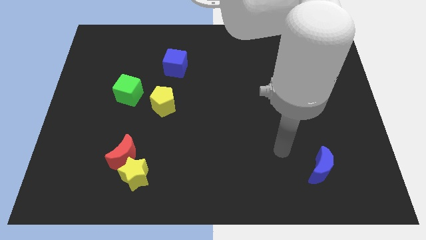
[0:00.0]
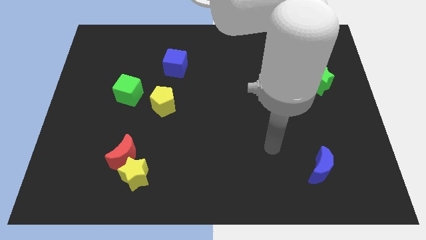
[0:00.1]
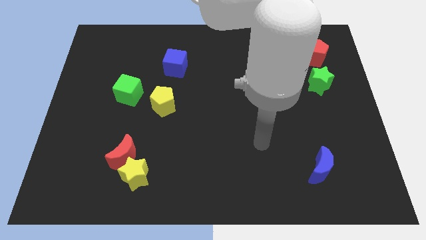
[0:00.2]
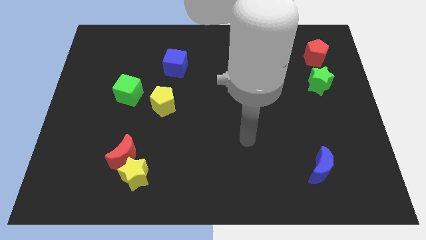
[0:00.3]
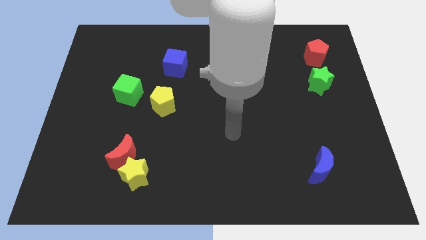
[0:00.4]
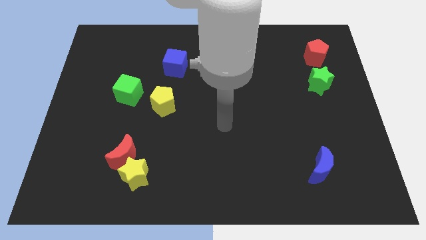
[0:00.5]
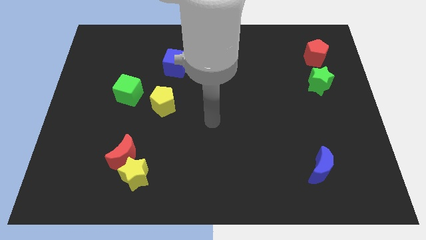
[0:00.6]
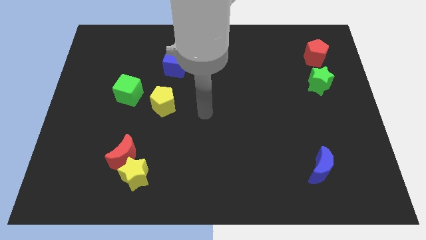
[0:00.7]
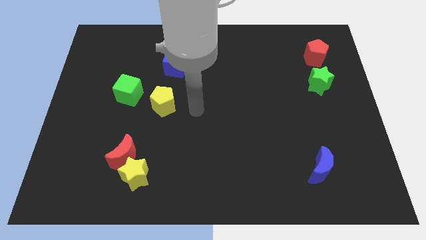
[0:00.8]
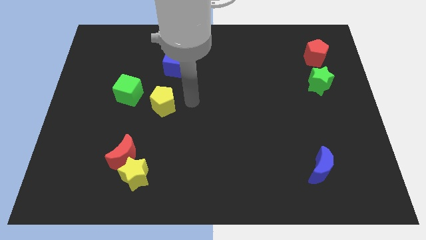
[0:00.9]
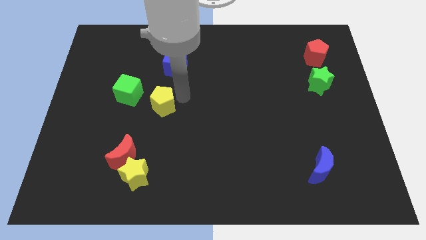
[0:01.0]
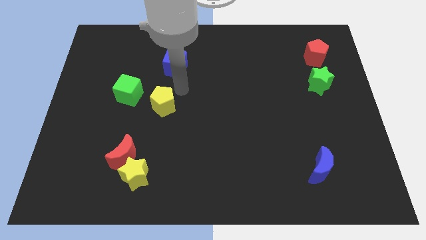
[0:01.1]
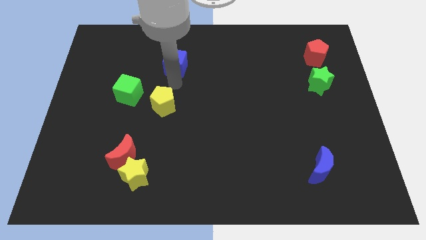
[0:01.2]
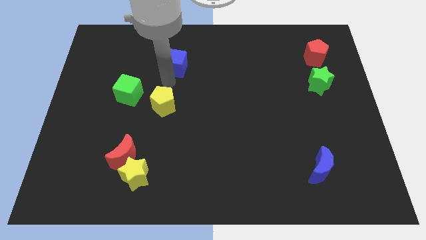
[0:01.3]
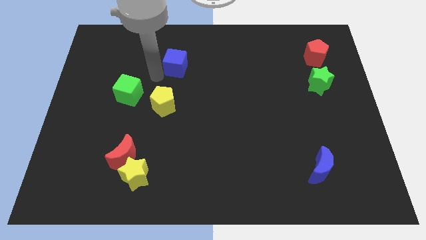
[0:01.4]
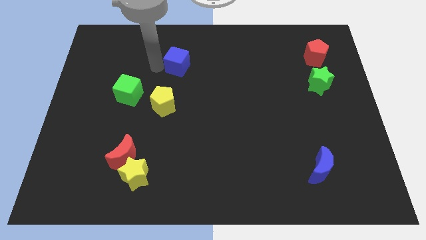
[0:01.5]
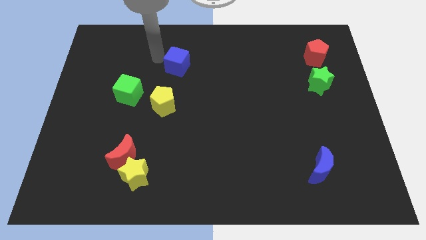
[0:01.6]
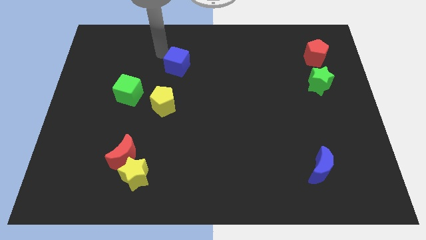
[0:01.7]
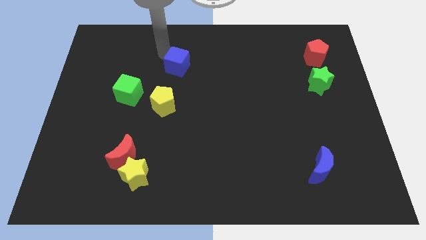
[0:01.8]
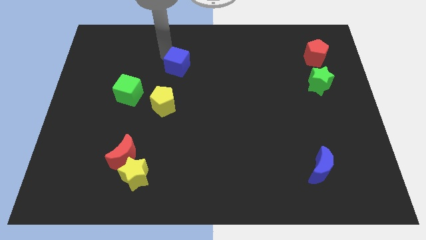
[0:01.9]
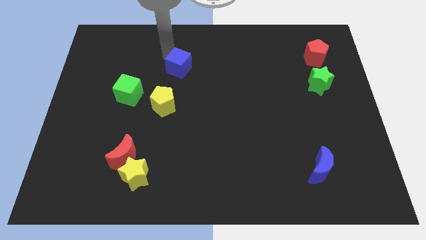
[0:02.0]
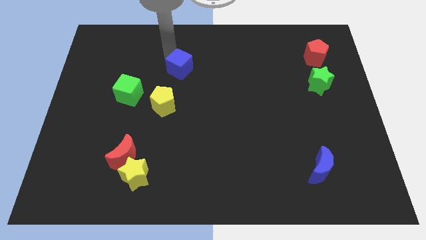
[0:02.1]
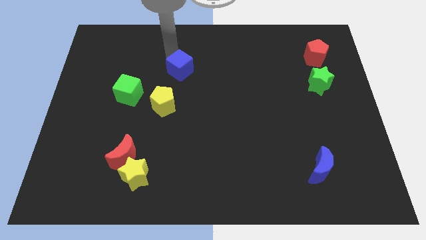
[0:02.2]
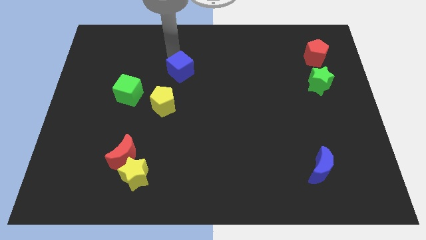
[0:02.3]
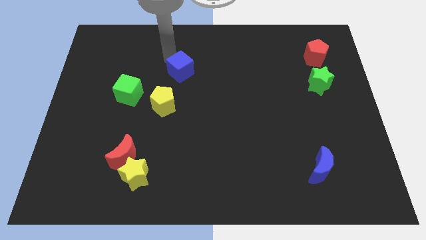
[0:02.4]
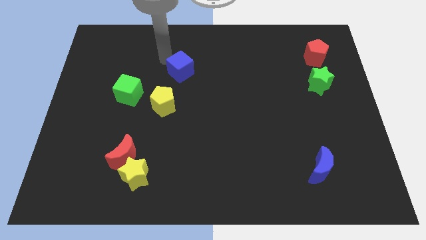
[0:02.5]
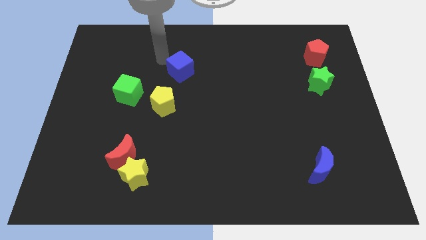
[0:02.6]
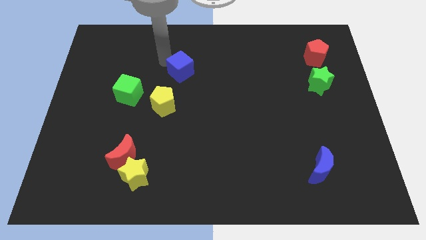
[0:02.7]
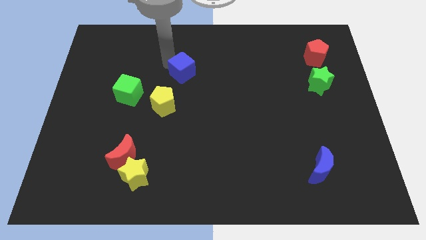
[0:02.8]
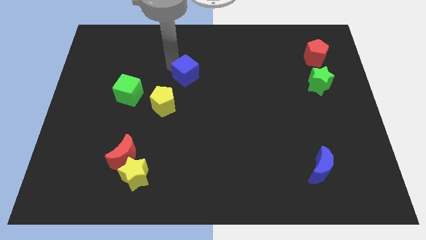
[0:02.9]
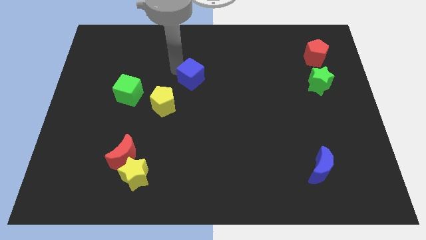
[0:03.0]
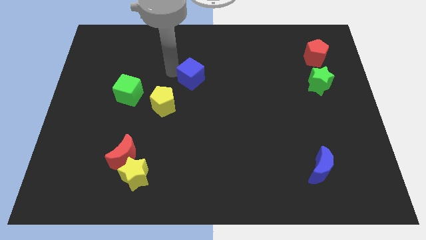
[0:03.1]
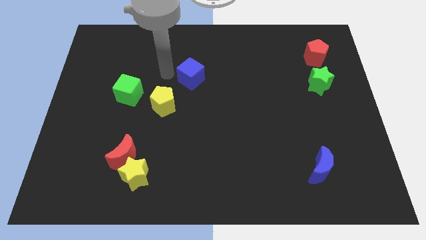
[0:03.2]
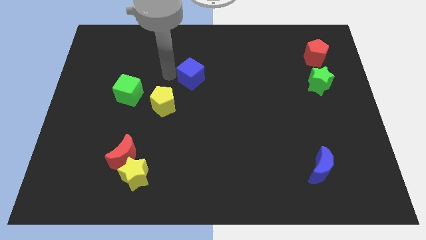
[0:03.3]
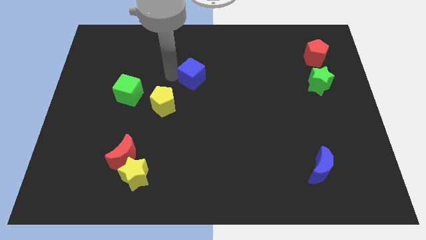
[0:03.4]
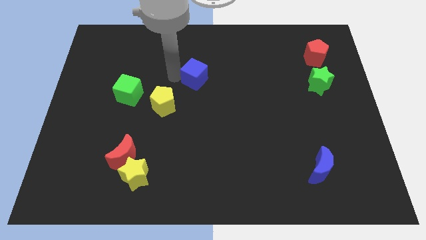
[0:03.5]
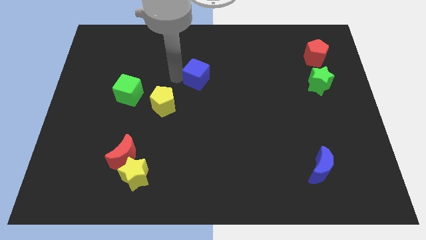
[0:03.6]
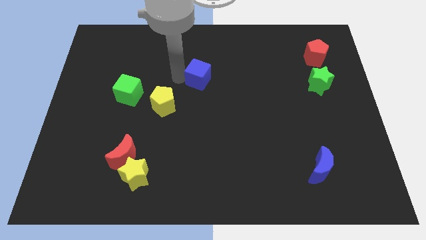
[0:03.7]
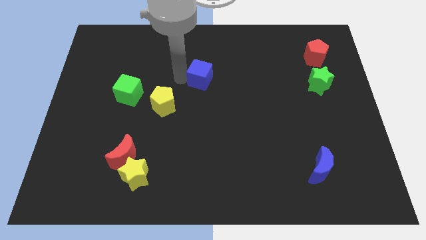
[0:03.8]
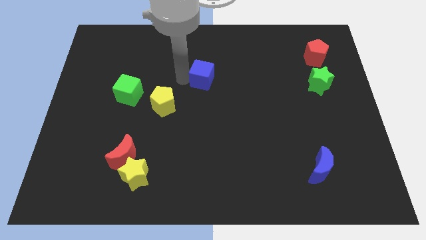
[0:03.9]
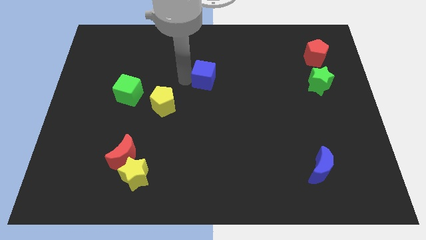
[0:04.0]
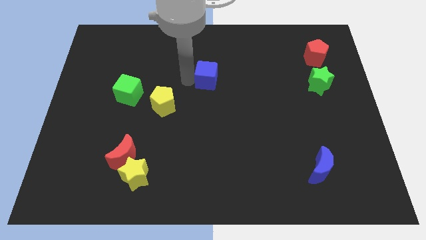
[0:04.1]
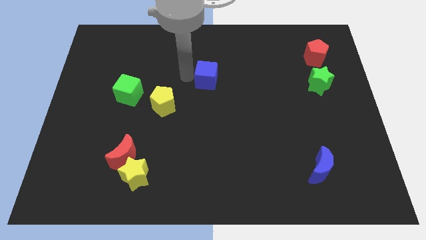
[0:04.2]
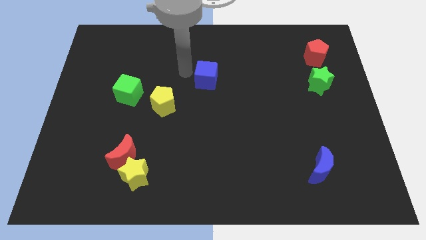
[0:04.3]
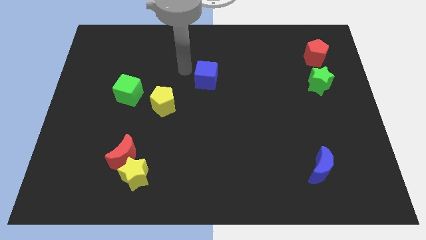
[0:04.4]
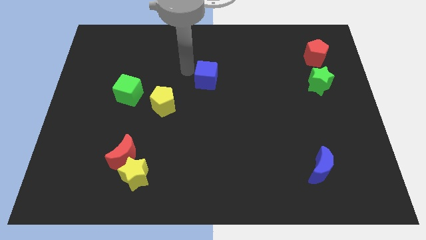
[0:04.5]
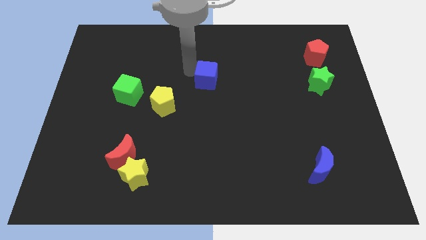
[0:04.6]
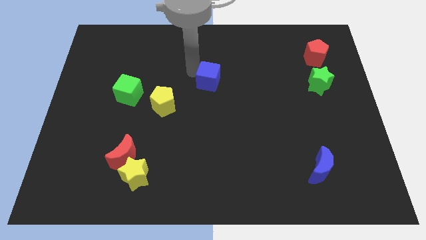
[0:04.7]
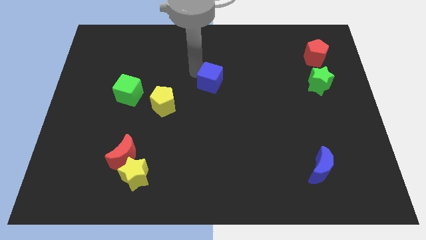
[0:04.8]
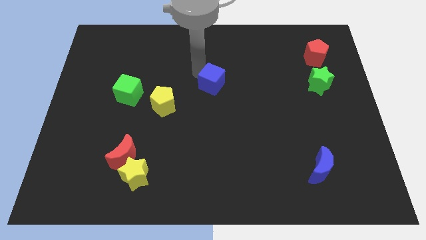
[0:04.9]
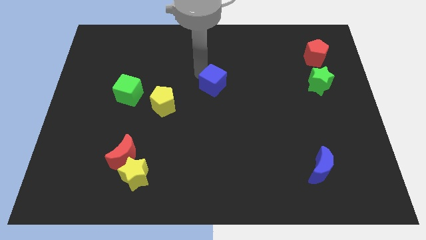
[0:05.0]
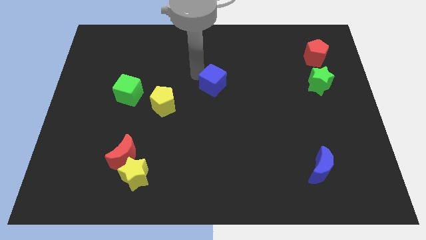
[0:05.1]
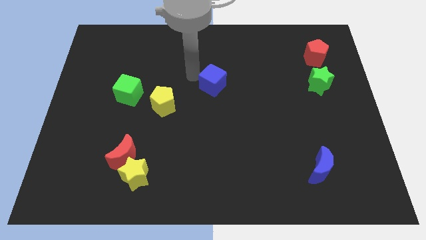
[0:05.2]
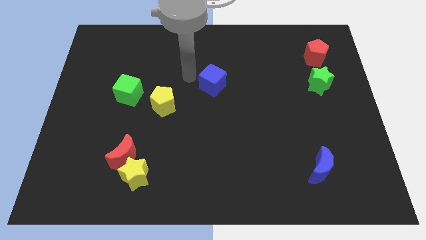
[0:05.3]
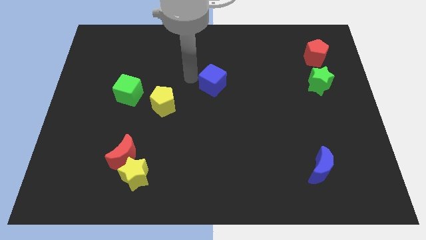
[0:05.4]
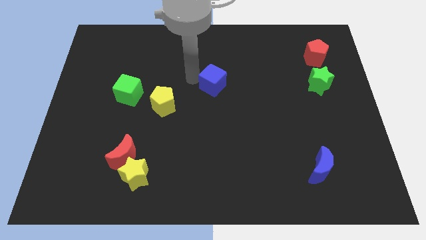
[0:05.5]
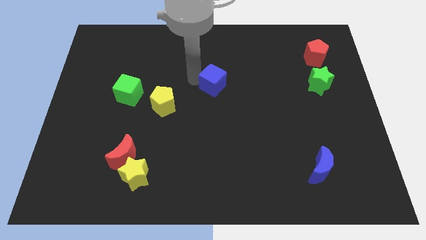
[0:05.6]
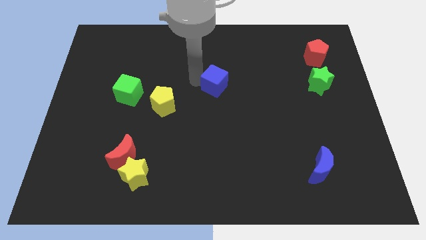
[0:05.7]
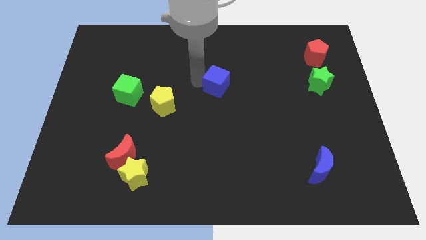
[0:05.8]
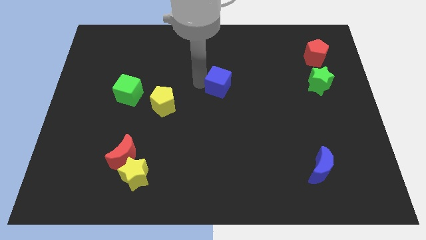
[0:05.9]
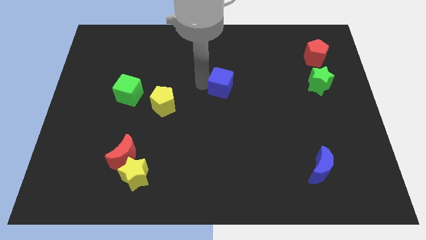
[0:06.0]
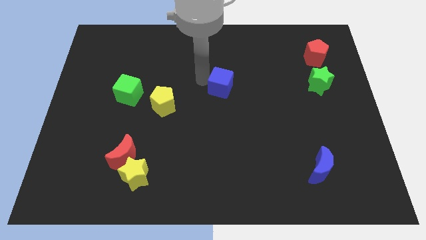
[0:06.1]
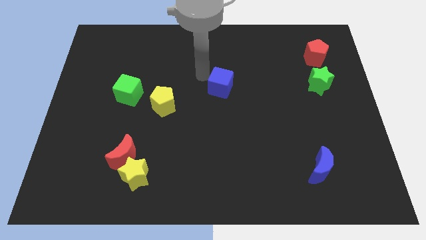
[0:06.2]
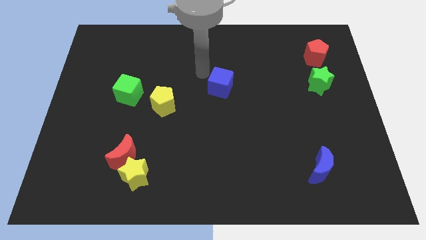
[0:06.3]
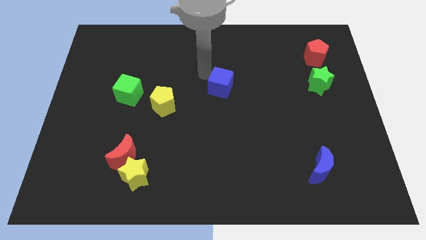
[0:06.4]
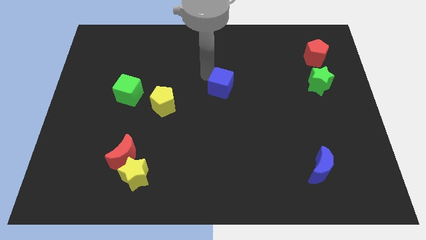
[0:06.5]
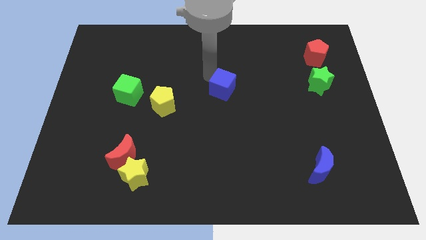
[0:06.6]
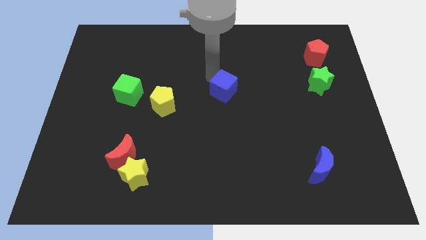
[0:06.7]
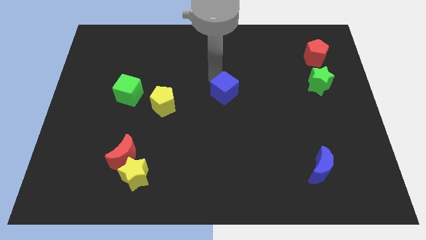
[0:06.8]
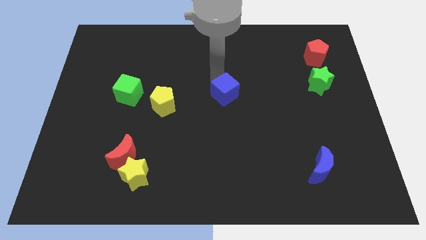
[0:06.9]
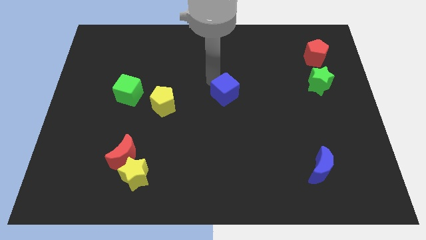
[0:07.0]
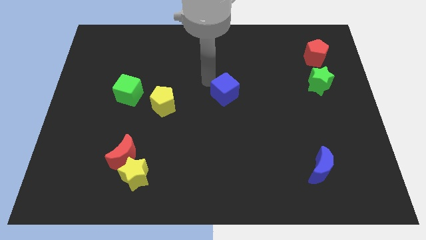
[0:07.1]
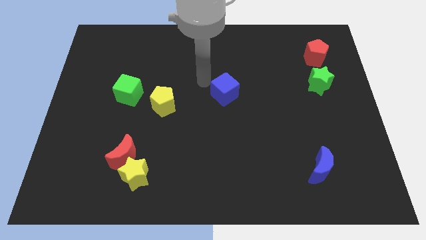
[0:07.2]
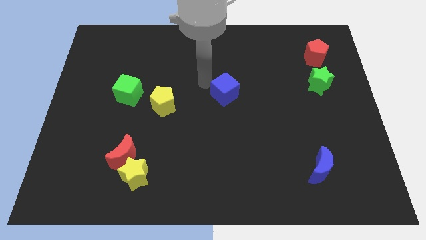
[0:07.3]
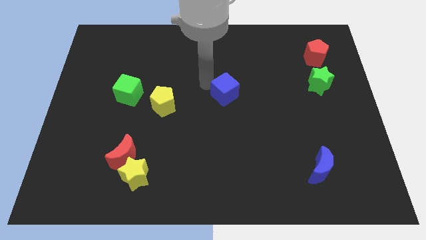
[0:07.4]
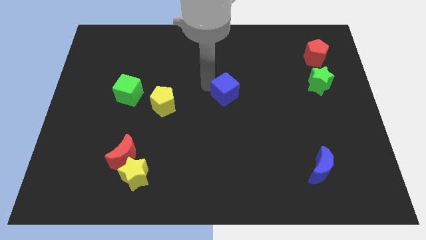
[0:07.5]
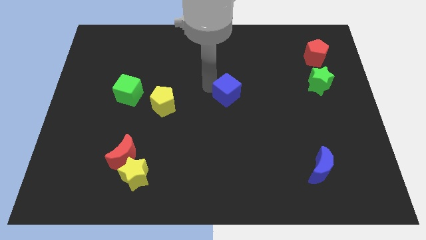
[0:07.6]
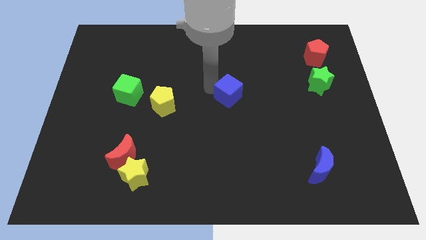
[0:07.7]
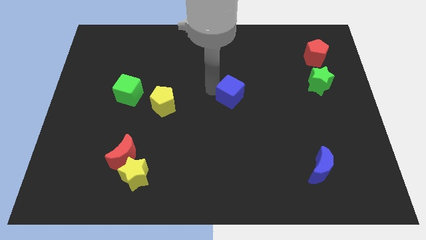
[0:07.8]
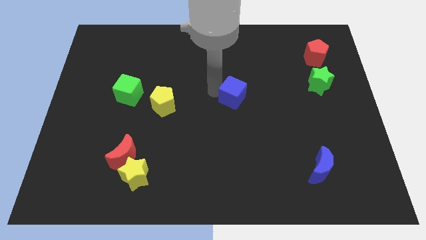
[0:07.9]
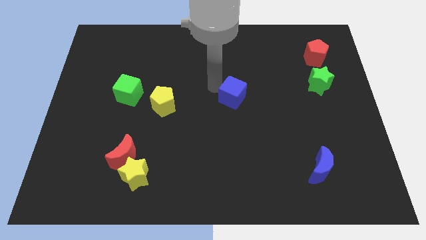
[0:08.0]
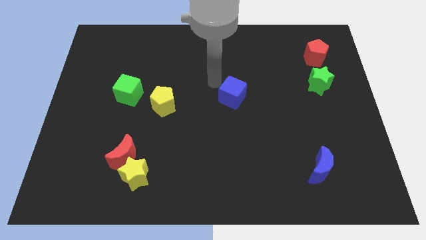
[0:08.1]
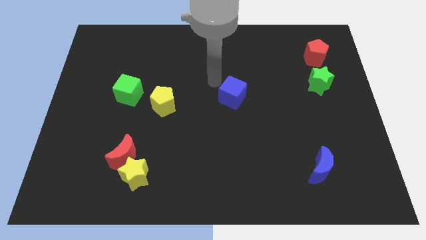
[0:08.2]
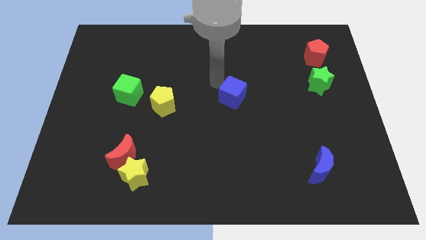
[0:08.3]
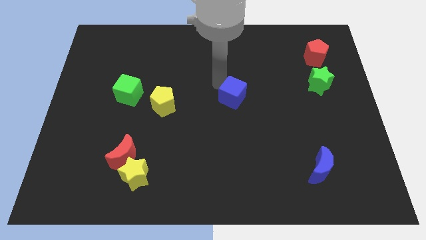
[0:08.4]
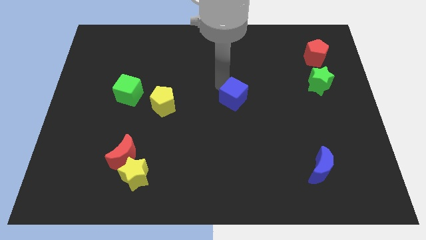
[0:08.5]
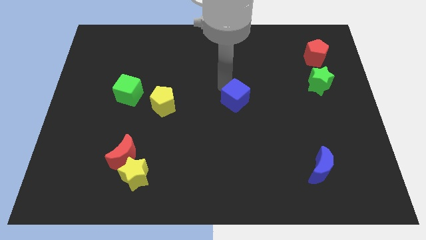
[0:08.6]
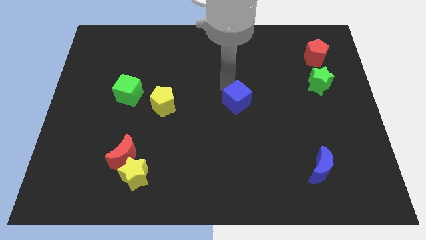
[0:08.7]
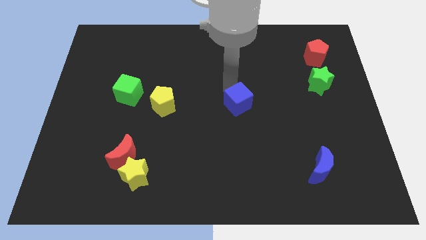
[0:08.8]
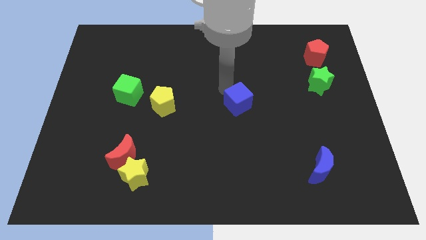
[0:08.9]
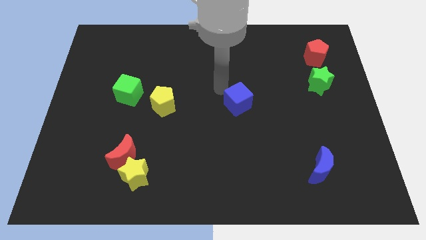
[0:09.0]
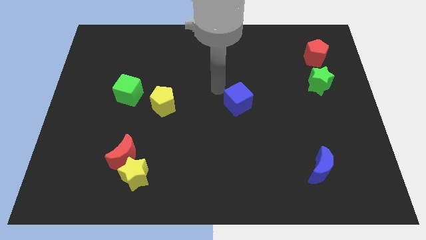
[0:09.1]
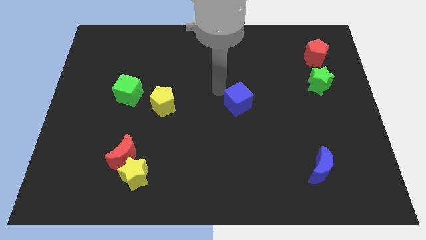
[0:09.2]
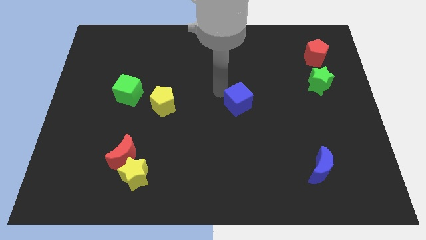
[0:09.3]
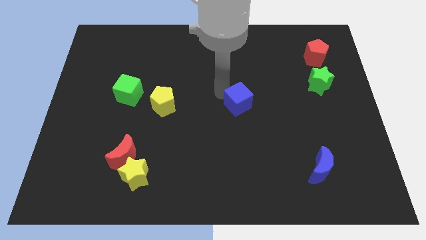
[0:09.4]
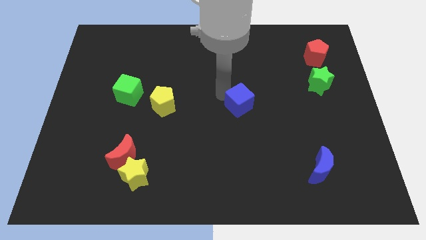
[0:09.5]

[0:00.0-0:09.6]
slide the blue cube downwards and then right
